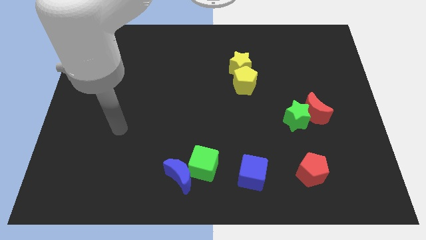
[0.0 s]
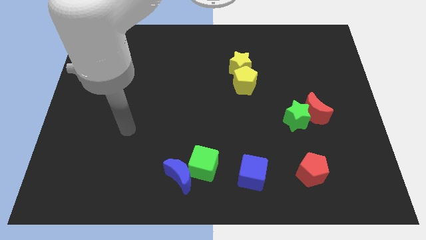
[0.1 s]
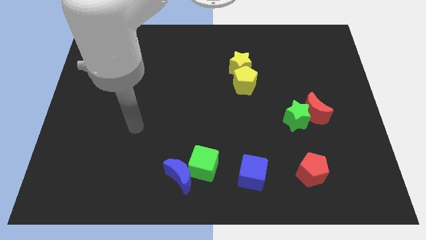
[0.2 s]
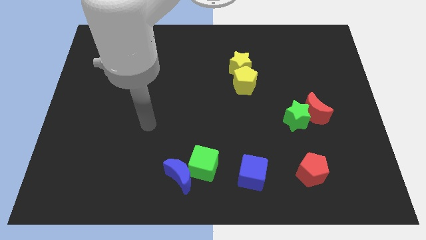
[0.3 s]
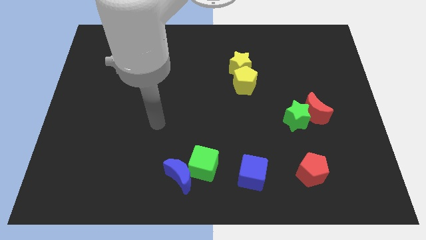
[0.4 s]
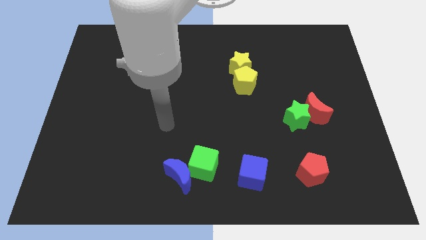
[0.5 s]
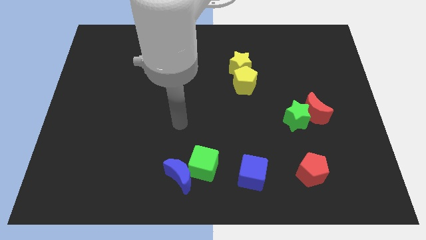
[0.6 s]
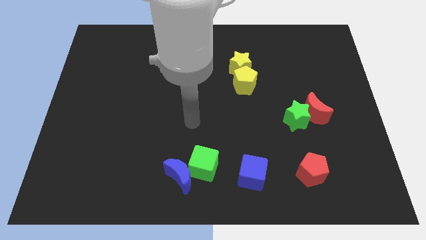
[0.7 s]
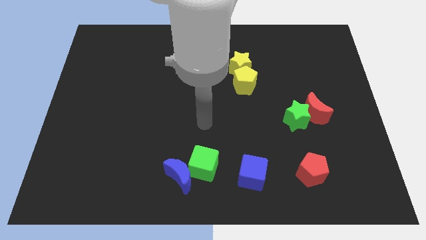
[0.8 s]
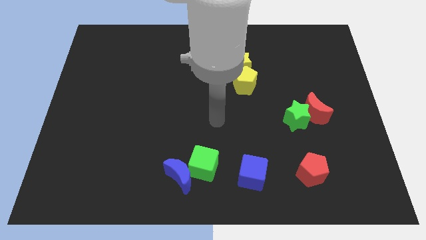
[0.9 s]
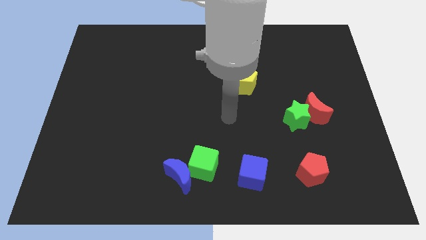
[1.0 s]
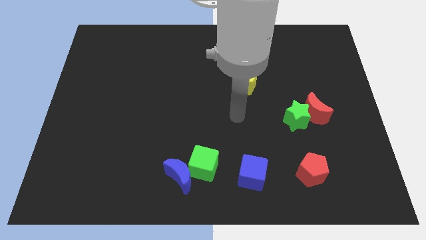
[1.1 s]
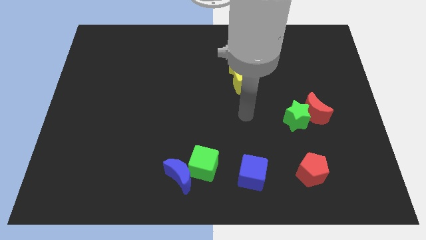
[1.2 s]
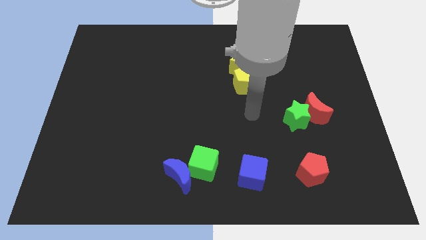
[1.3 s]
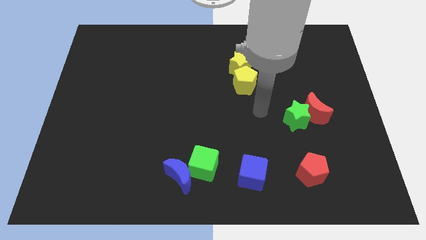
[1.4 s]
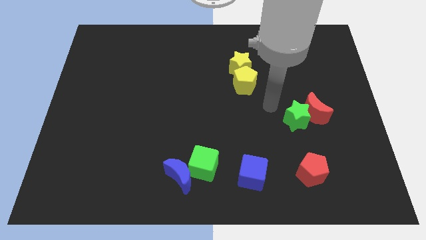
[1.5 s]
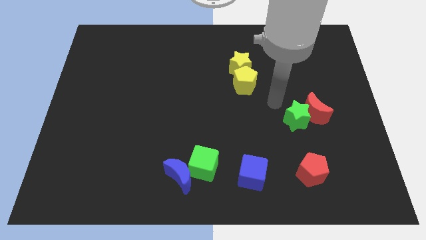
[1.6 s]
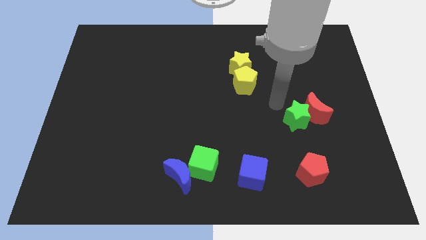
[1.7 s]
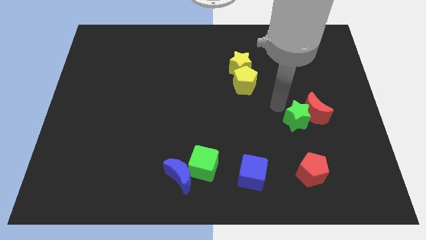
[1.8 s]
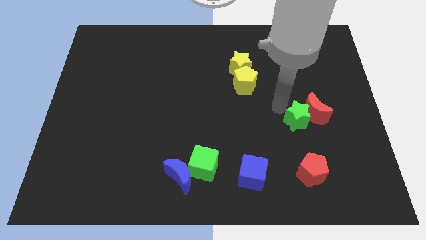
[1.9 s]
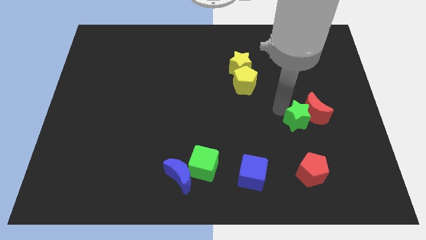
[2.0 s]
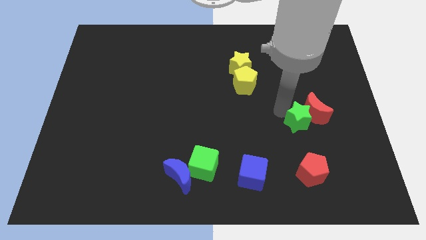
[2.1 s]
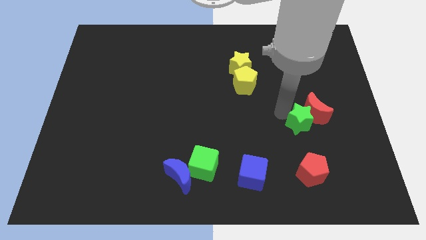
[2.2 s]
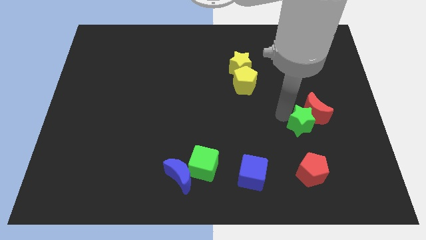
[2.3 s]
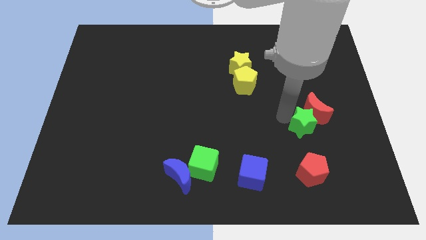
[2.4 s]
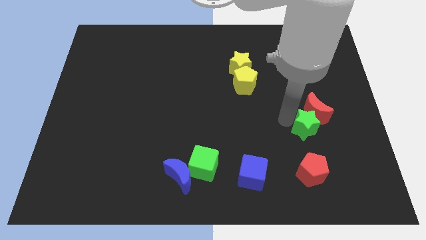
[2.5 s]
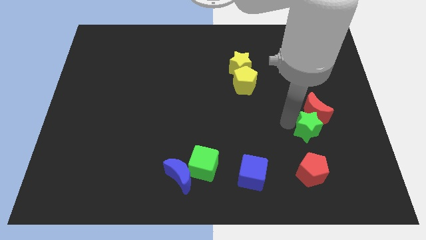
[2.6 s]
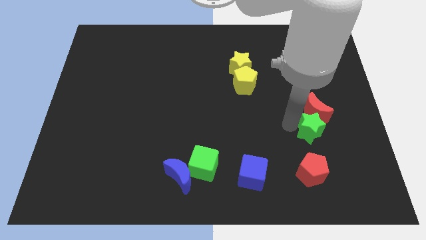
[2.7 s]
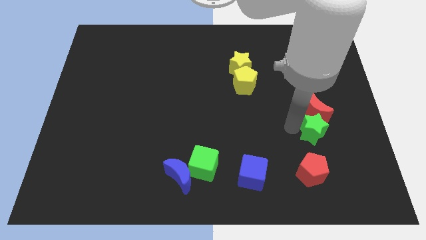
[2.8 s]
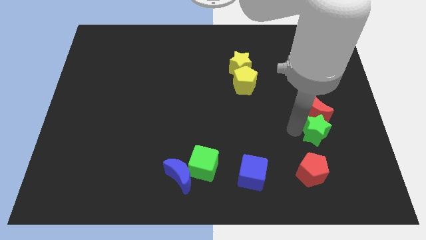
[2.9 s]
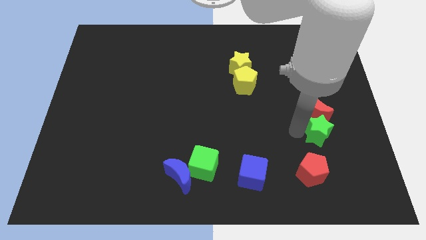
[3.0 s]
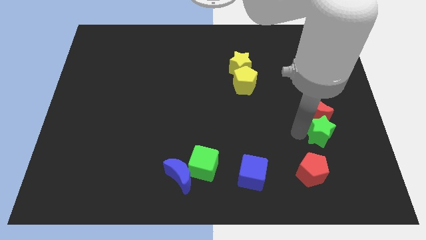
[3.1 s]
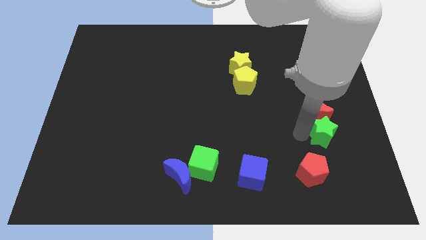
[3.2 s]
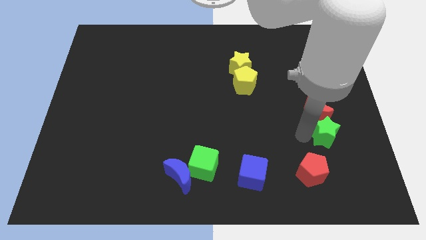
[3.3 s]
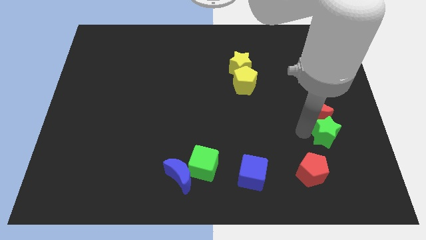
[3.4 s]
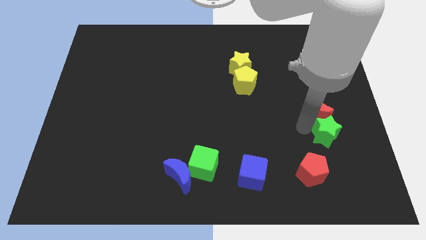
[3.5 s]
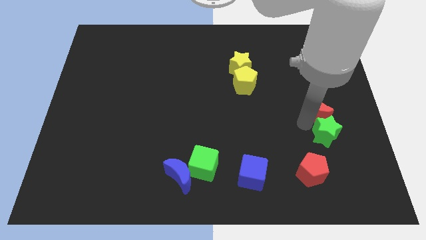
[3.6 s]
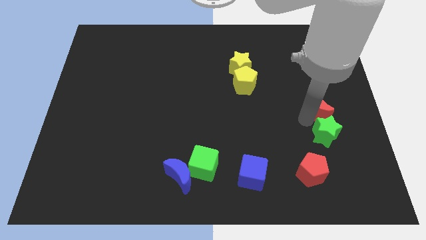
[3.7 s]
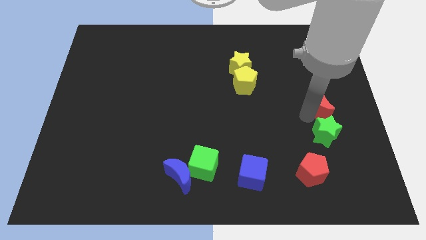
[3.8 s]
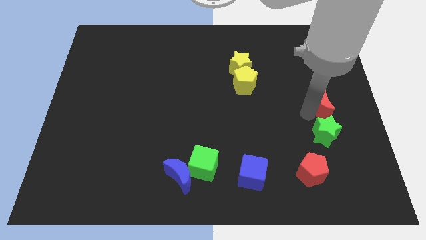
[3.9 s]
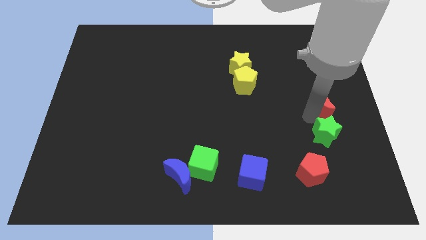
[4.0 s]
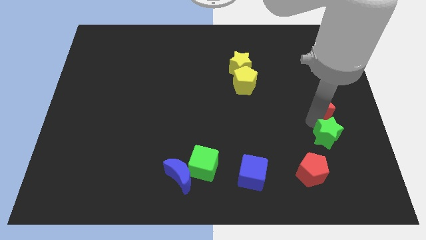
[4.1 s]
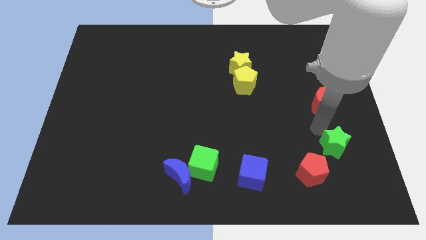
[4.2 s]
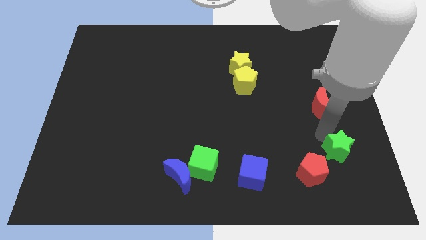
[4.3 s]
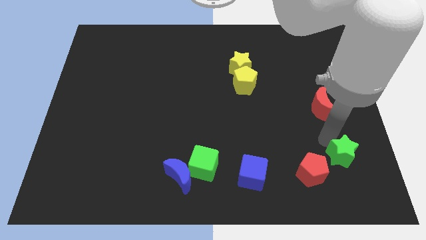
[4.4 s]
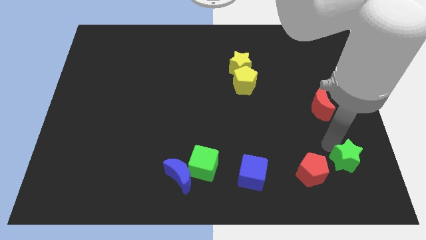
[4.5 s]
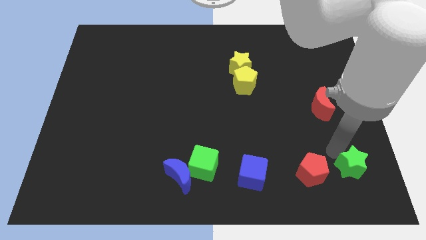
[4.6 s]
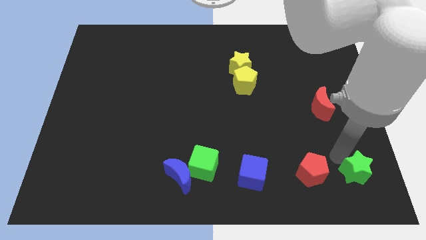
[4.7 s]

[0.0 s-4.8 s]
put the green star to the bottom right

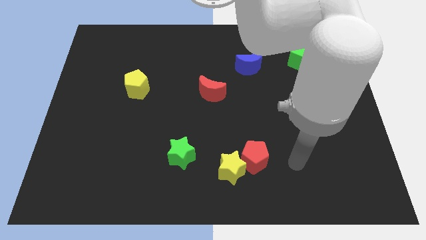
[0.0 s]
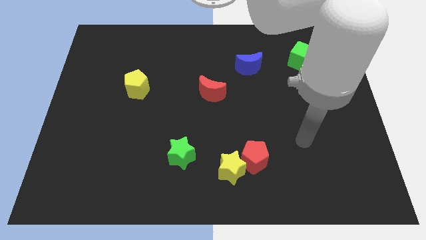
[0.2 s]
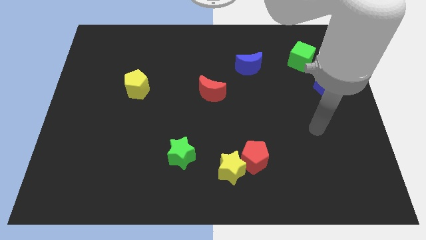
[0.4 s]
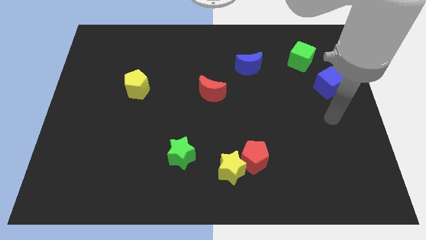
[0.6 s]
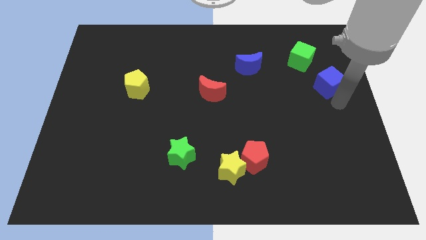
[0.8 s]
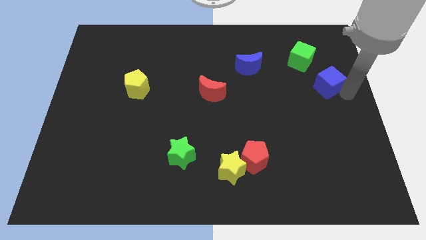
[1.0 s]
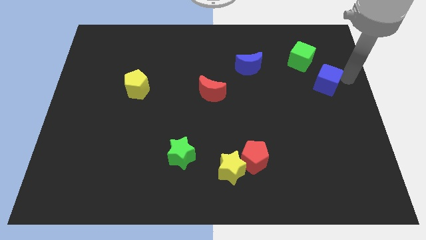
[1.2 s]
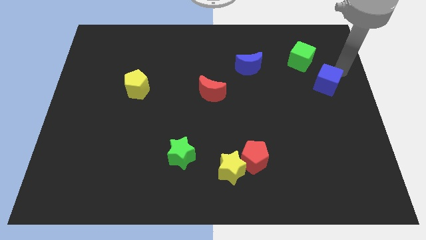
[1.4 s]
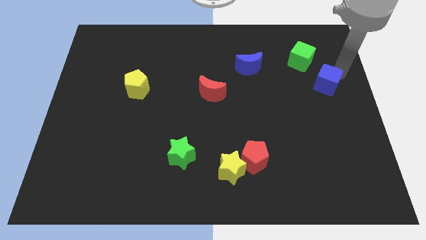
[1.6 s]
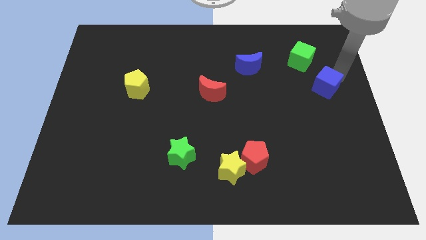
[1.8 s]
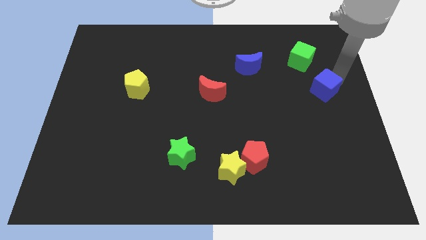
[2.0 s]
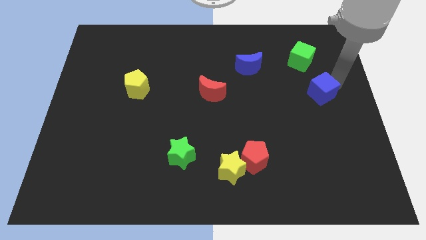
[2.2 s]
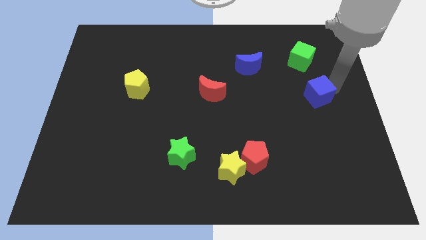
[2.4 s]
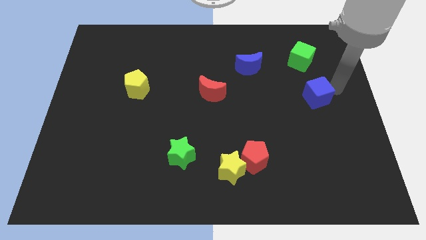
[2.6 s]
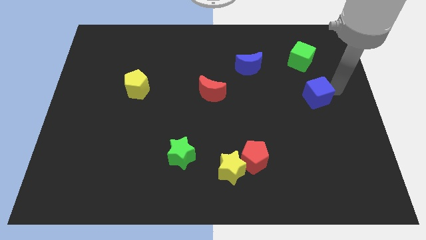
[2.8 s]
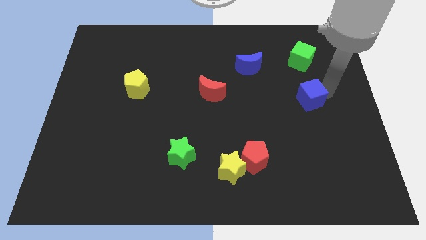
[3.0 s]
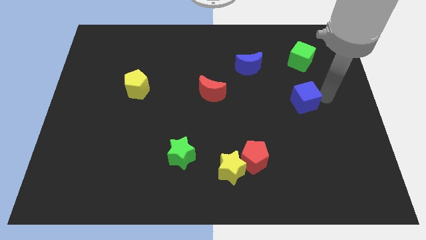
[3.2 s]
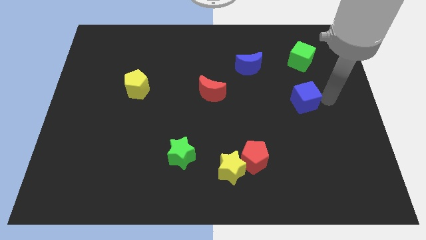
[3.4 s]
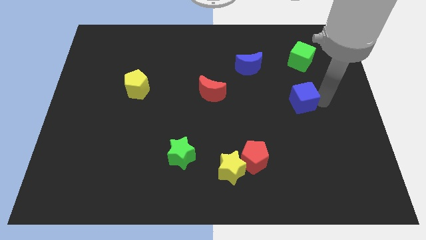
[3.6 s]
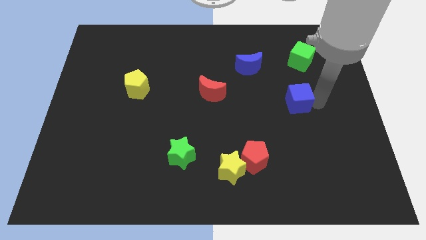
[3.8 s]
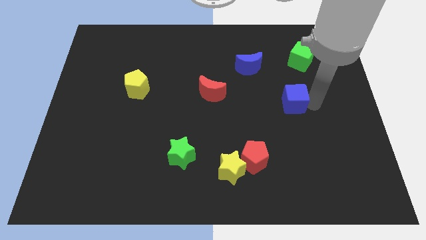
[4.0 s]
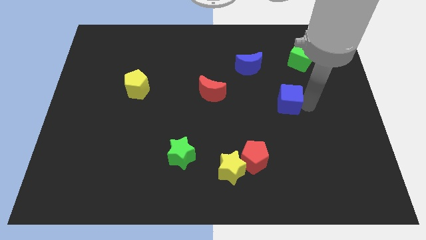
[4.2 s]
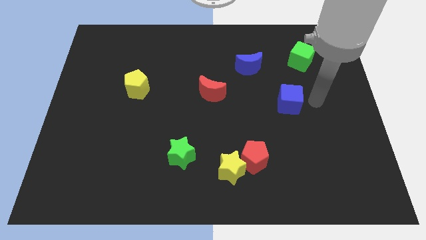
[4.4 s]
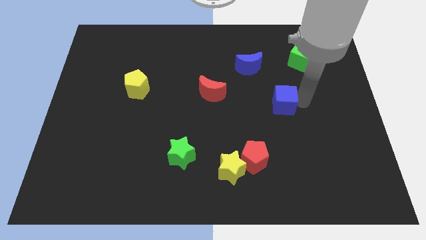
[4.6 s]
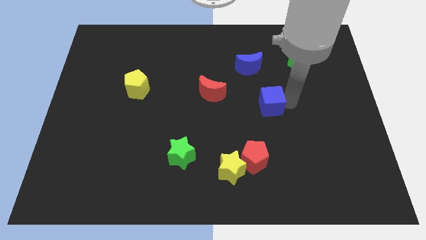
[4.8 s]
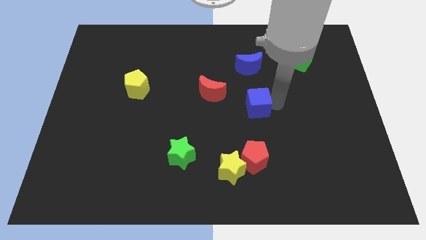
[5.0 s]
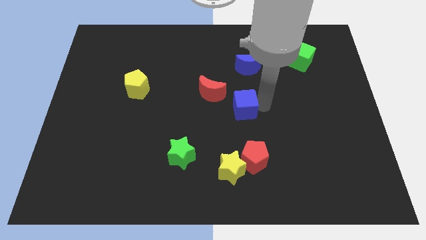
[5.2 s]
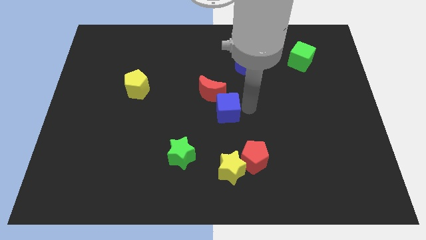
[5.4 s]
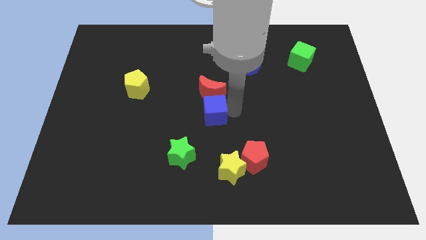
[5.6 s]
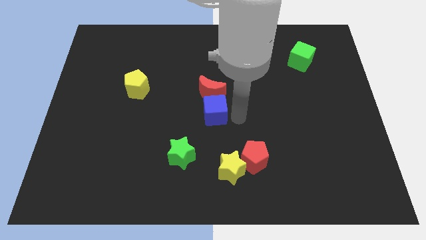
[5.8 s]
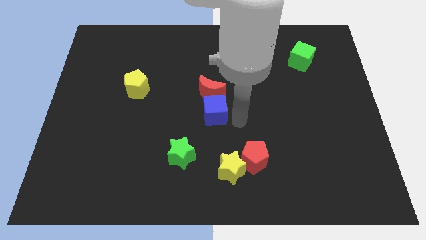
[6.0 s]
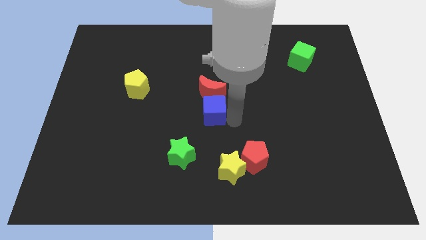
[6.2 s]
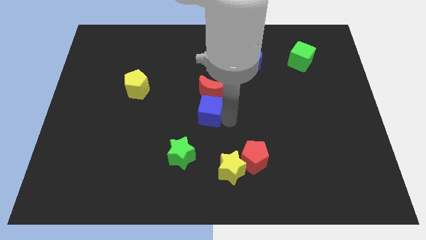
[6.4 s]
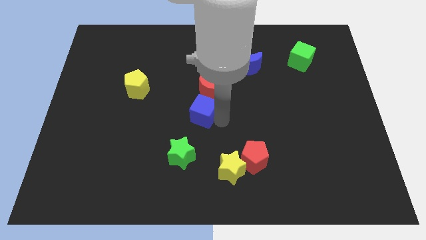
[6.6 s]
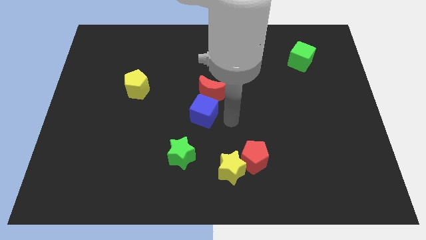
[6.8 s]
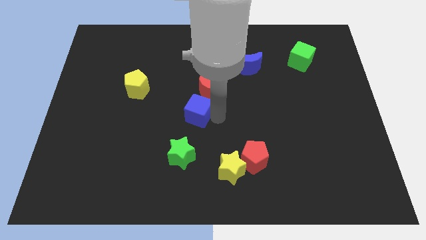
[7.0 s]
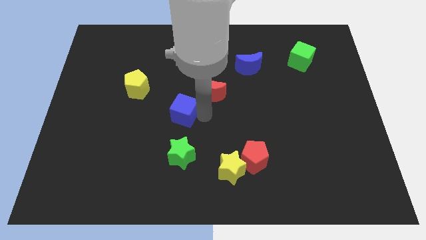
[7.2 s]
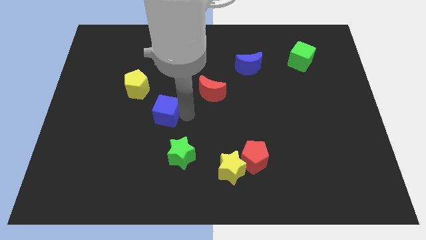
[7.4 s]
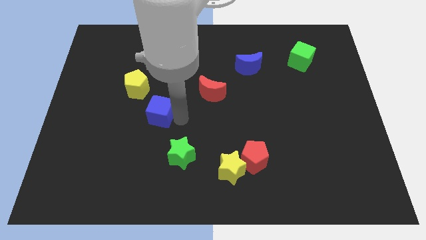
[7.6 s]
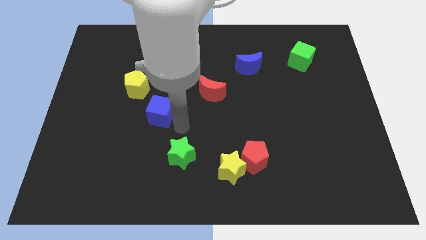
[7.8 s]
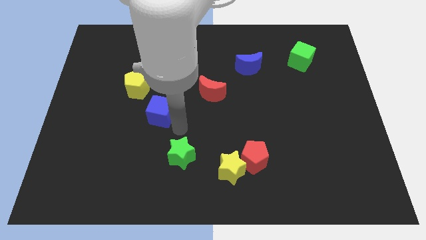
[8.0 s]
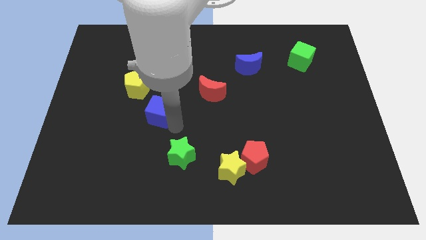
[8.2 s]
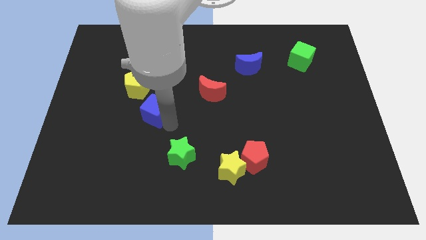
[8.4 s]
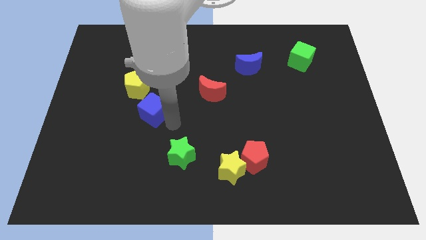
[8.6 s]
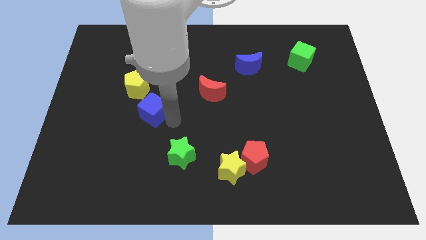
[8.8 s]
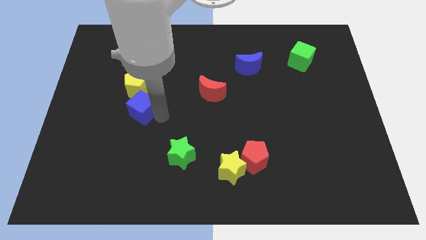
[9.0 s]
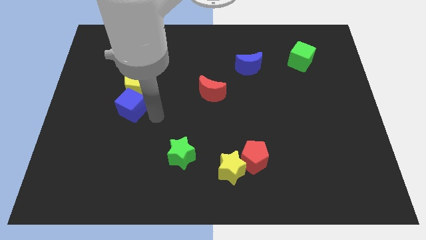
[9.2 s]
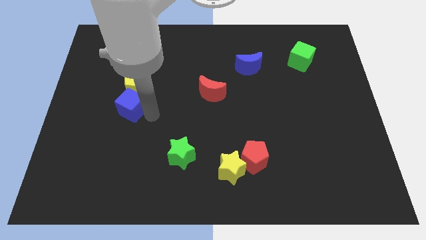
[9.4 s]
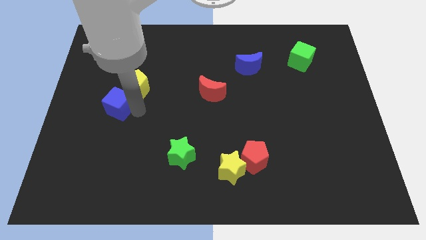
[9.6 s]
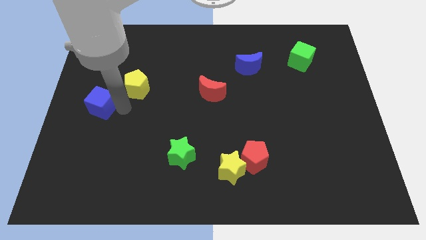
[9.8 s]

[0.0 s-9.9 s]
push the blue cube to the left side
